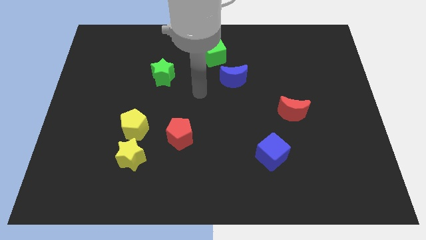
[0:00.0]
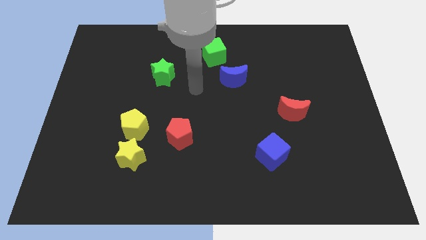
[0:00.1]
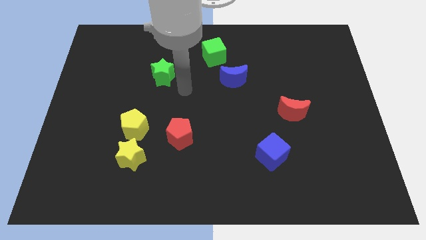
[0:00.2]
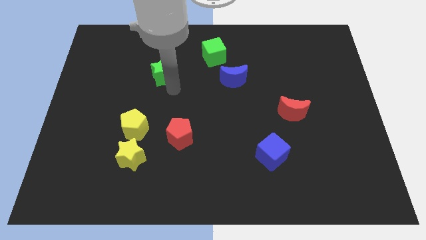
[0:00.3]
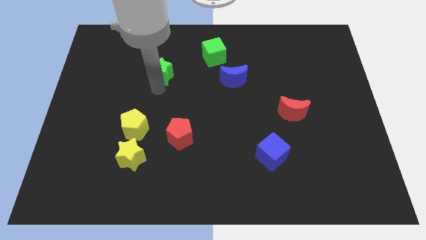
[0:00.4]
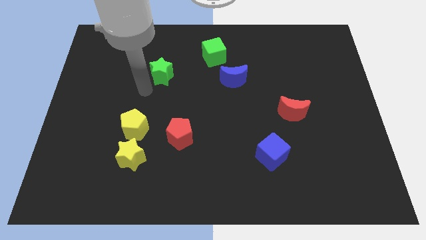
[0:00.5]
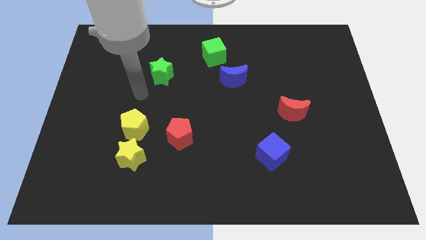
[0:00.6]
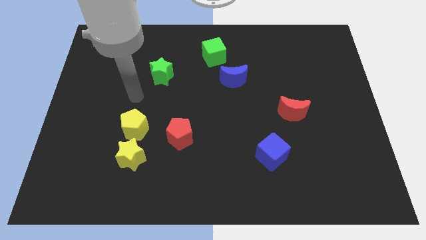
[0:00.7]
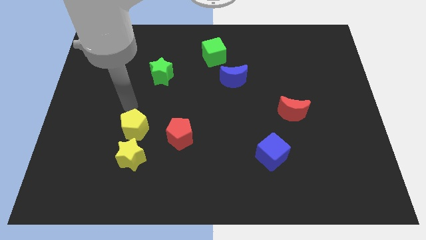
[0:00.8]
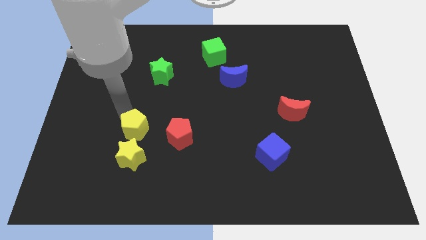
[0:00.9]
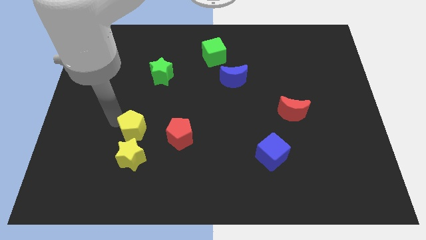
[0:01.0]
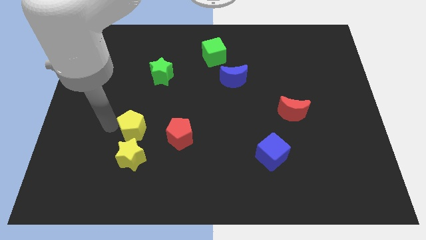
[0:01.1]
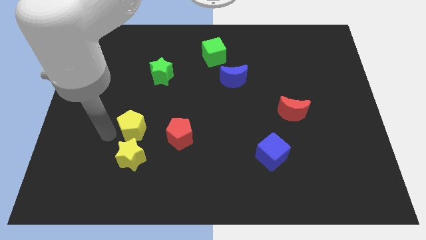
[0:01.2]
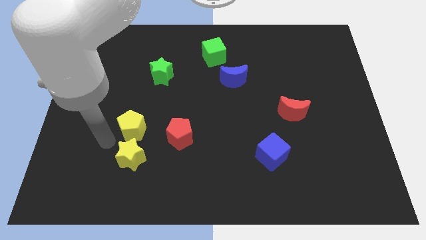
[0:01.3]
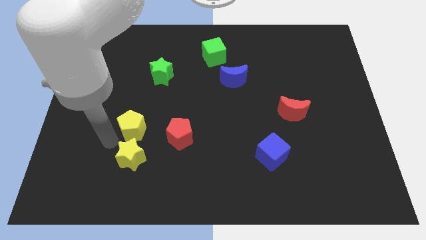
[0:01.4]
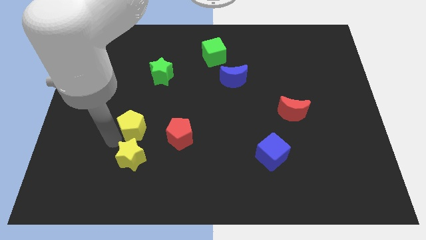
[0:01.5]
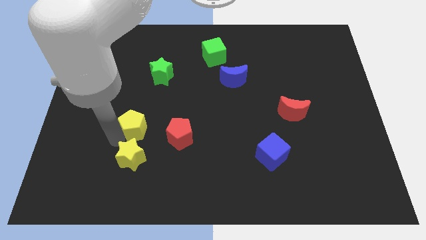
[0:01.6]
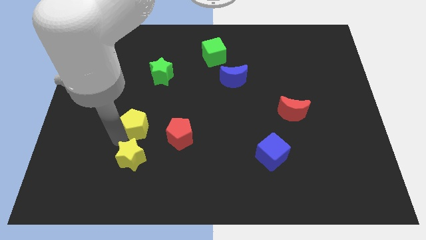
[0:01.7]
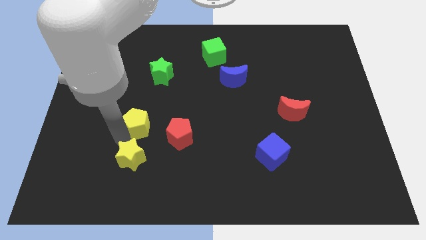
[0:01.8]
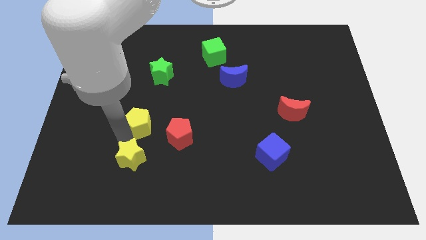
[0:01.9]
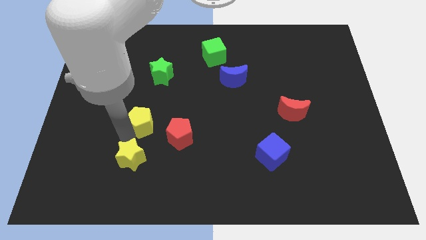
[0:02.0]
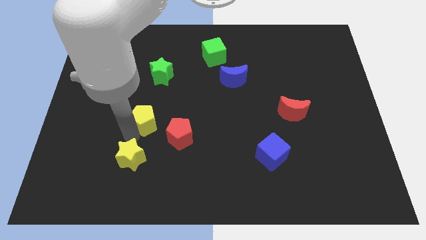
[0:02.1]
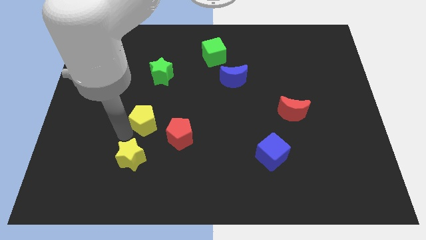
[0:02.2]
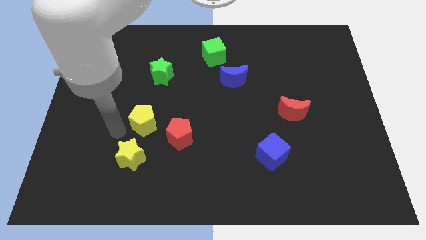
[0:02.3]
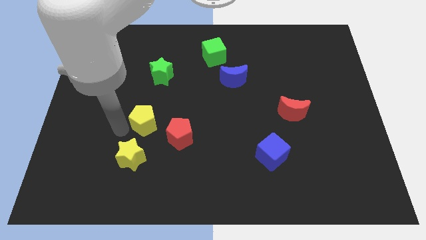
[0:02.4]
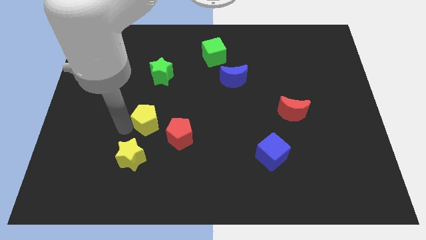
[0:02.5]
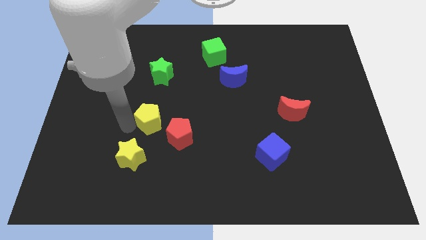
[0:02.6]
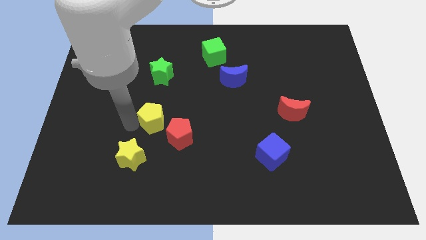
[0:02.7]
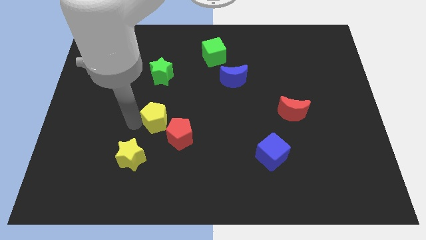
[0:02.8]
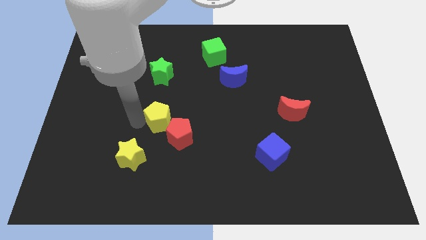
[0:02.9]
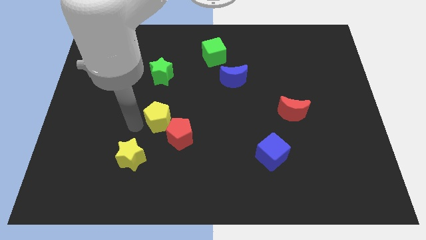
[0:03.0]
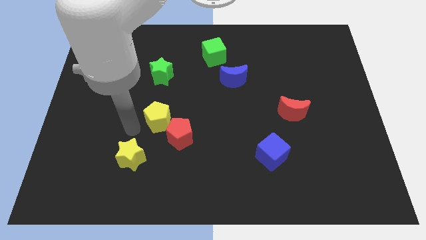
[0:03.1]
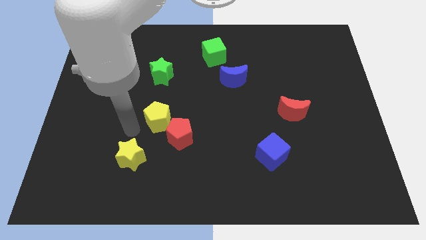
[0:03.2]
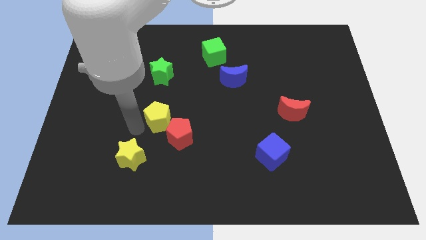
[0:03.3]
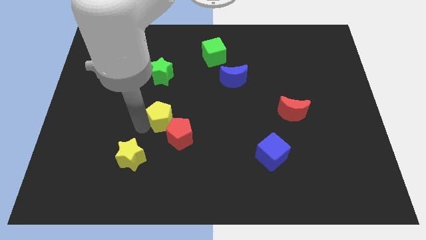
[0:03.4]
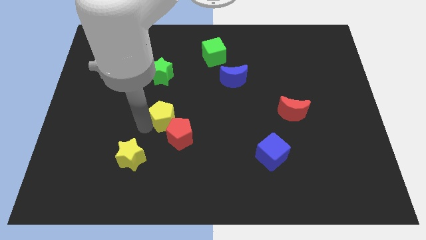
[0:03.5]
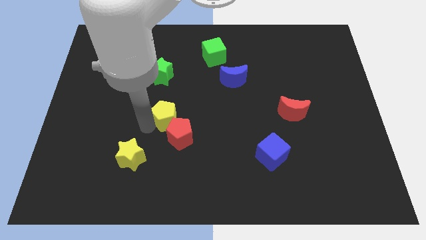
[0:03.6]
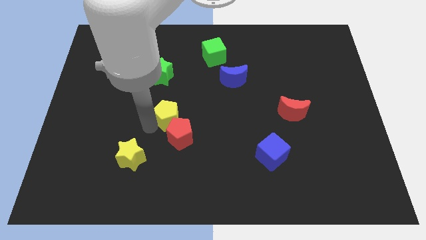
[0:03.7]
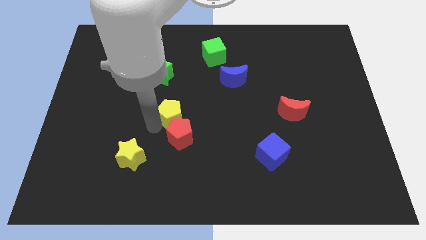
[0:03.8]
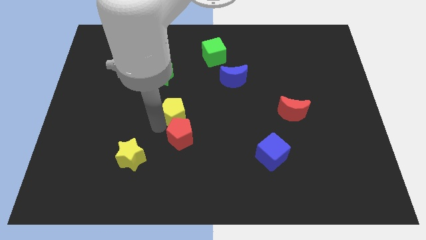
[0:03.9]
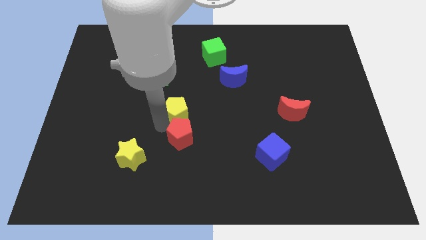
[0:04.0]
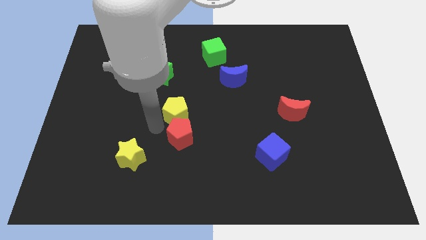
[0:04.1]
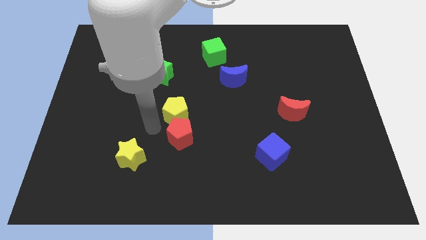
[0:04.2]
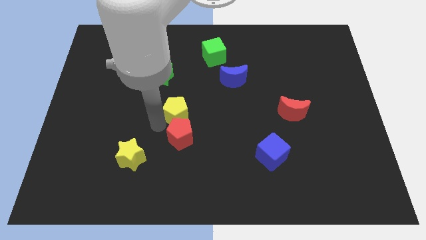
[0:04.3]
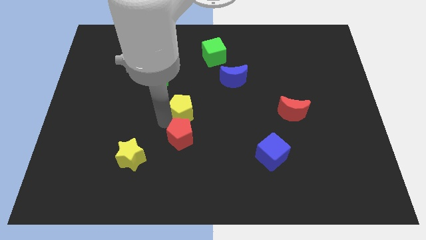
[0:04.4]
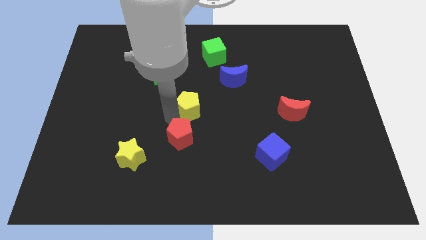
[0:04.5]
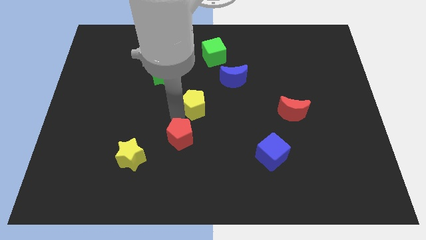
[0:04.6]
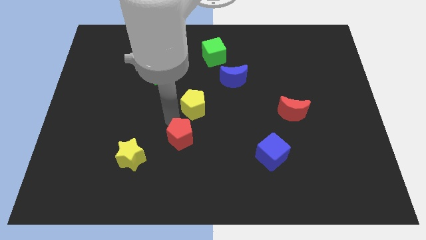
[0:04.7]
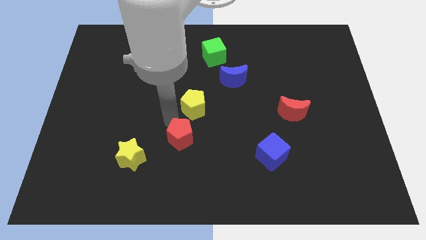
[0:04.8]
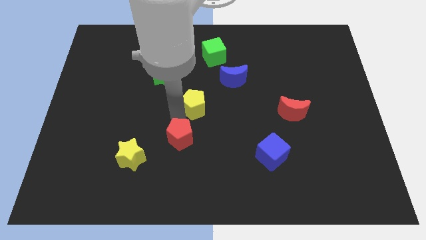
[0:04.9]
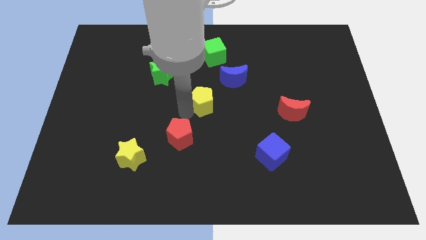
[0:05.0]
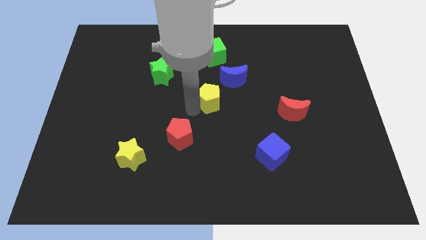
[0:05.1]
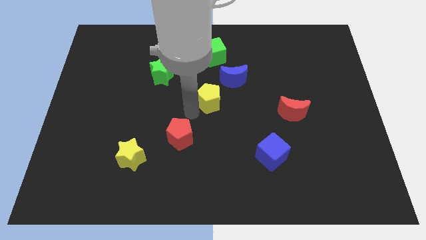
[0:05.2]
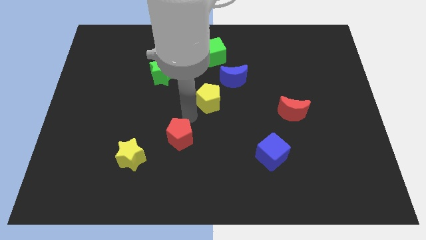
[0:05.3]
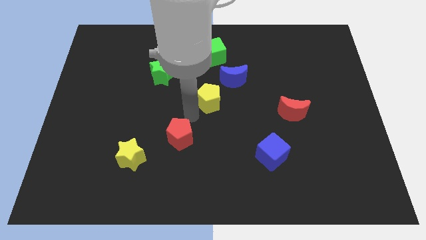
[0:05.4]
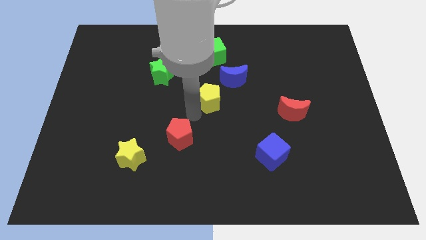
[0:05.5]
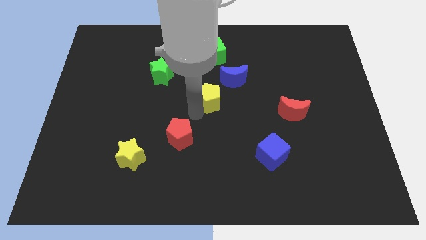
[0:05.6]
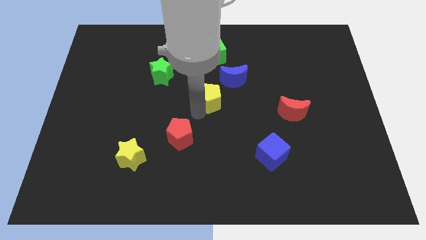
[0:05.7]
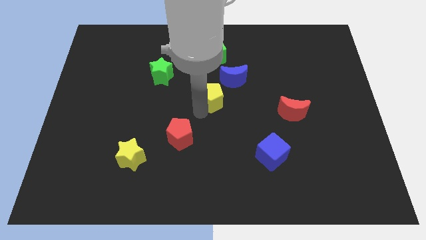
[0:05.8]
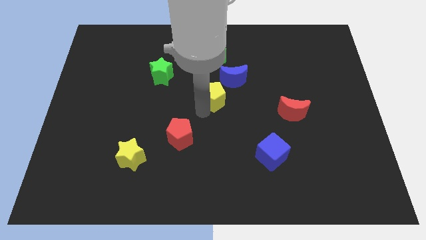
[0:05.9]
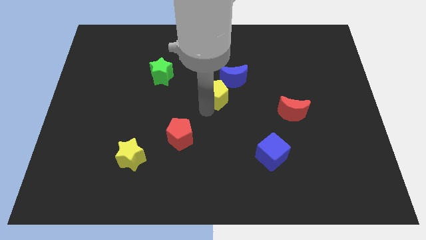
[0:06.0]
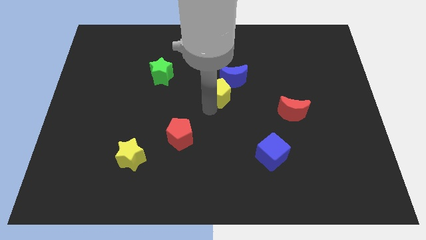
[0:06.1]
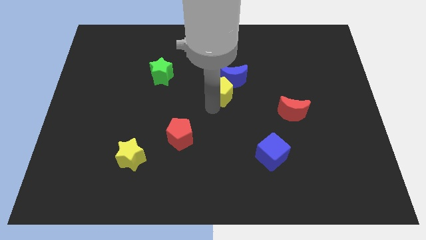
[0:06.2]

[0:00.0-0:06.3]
push the yellow pentagon close to the blue moon

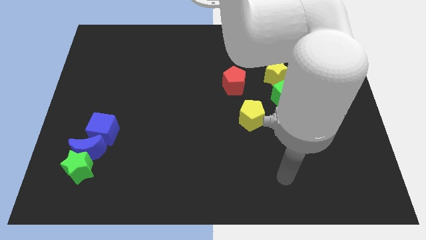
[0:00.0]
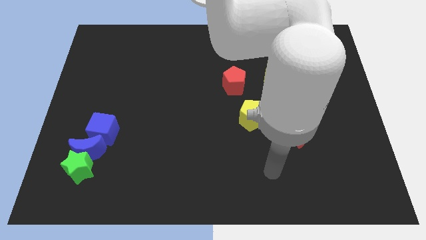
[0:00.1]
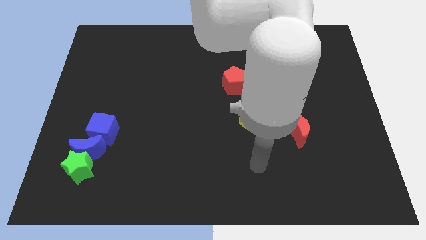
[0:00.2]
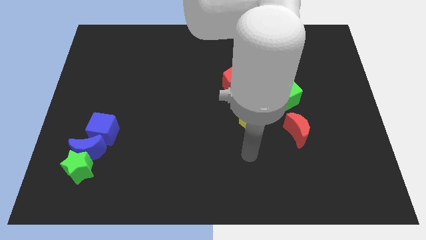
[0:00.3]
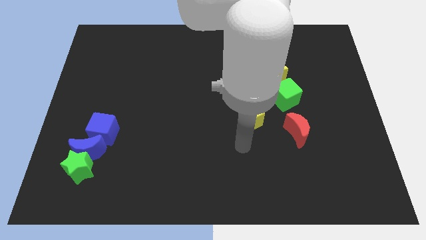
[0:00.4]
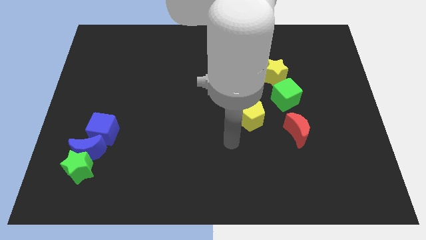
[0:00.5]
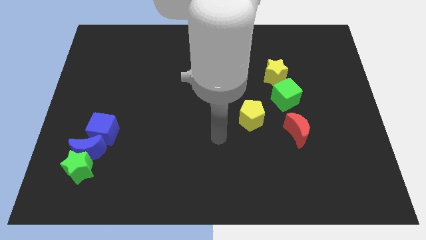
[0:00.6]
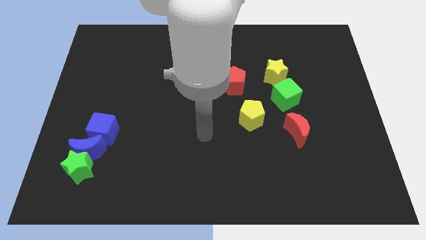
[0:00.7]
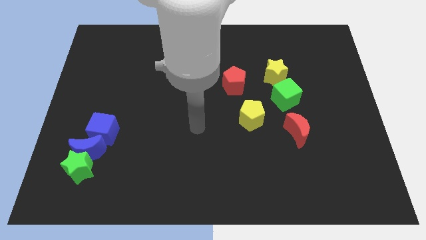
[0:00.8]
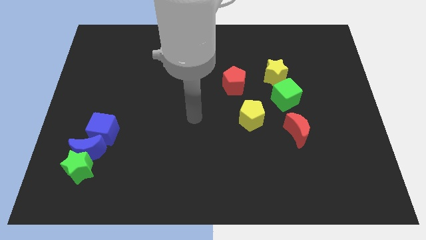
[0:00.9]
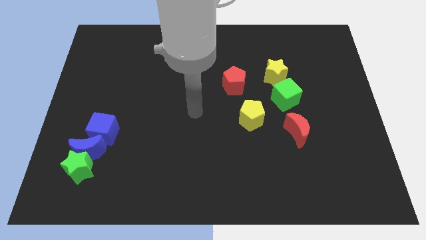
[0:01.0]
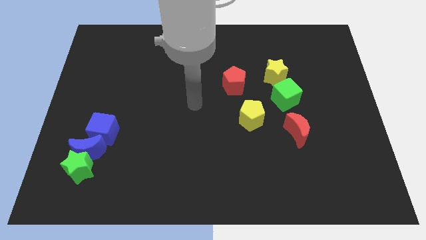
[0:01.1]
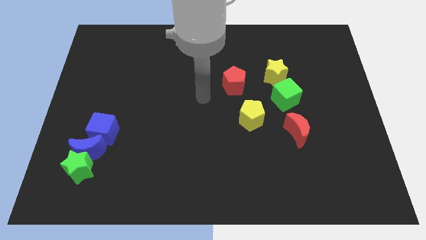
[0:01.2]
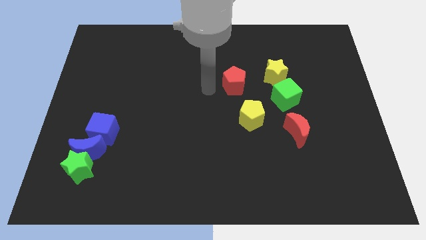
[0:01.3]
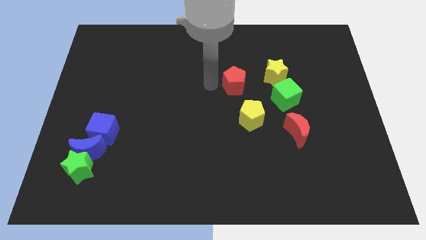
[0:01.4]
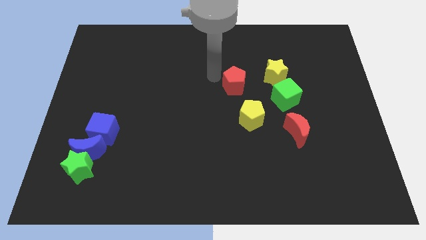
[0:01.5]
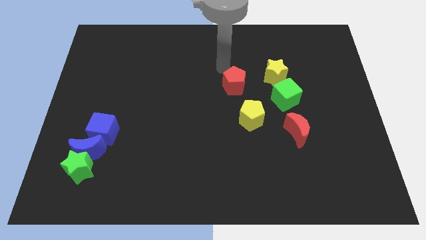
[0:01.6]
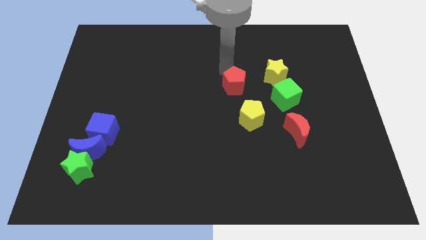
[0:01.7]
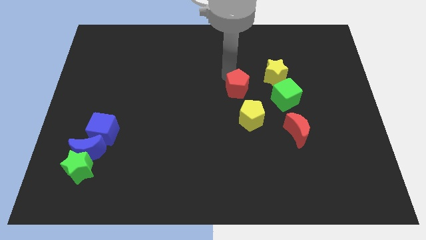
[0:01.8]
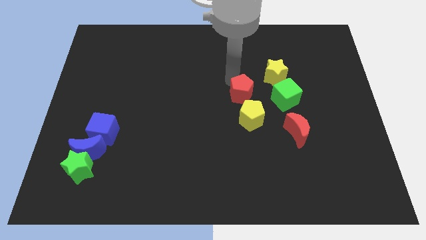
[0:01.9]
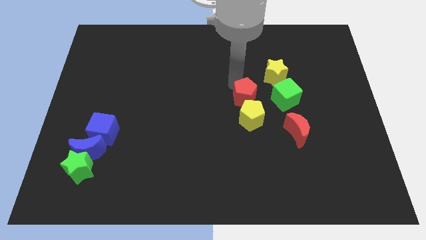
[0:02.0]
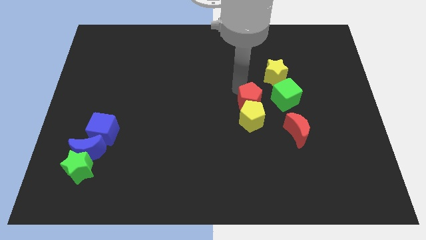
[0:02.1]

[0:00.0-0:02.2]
move the red pentagon next to the yellow pentagon
